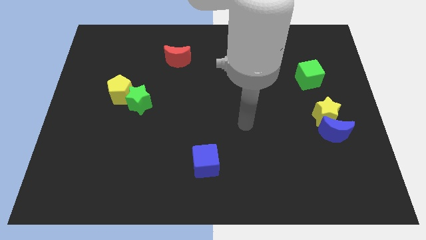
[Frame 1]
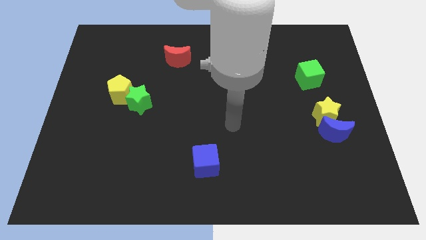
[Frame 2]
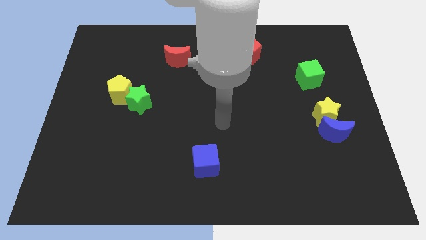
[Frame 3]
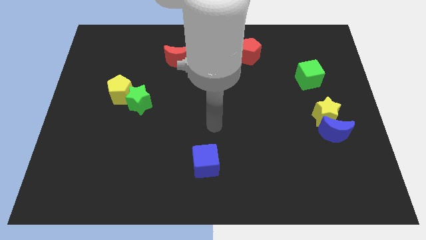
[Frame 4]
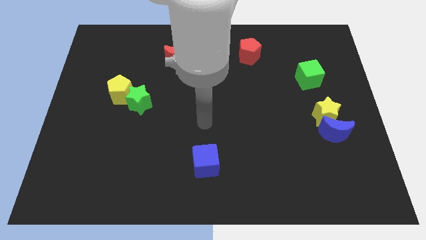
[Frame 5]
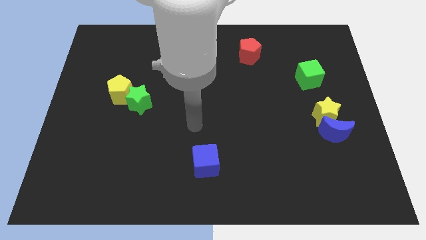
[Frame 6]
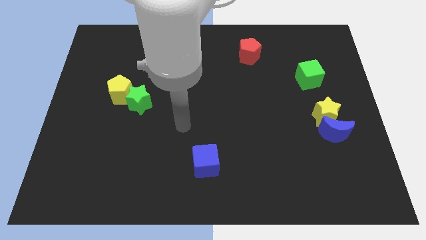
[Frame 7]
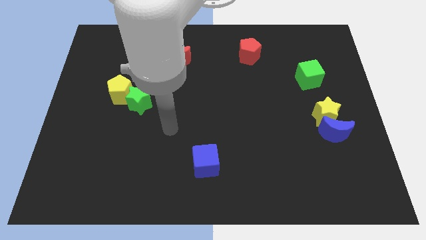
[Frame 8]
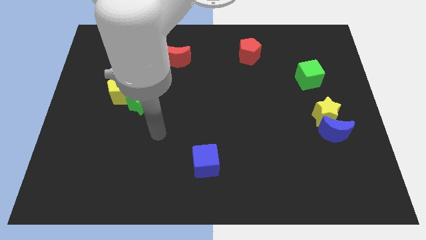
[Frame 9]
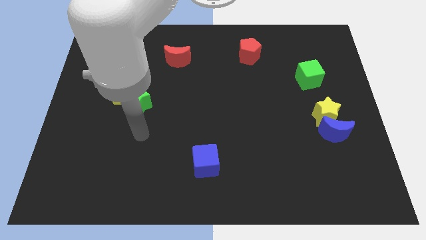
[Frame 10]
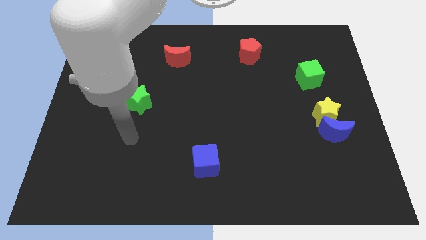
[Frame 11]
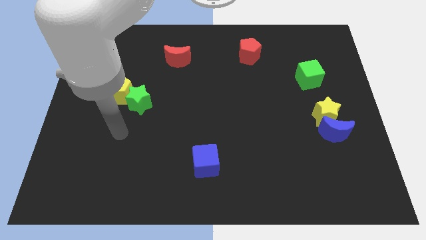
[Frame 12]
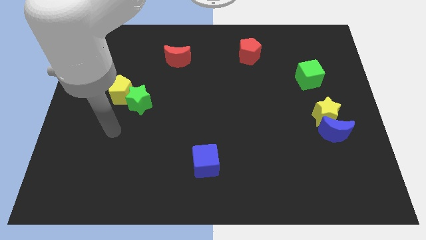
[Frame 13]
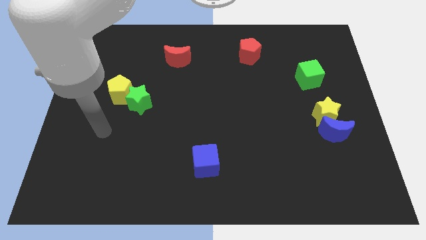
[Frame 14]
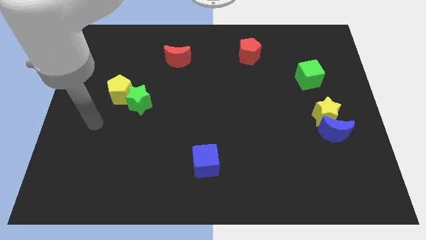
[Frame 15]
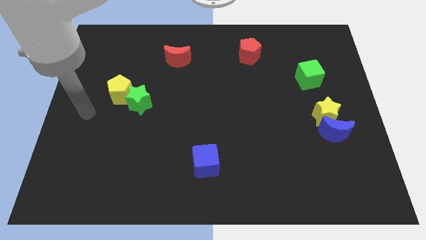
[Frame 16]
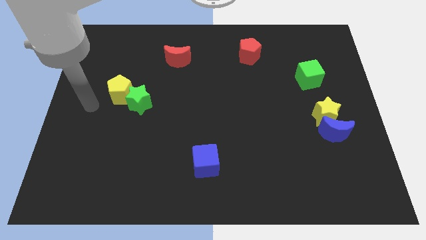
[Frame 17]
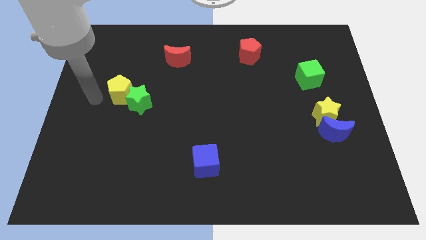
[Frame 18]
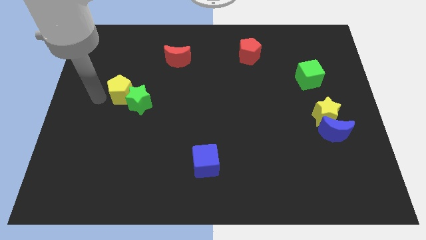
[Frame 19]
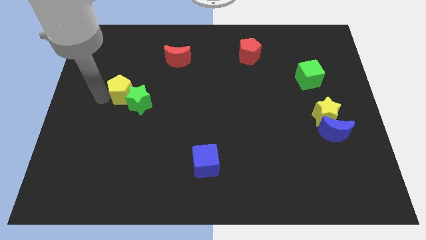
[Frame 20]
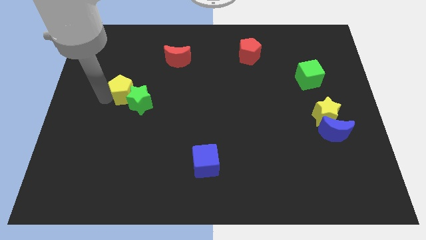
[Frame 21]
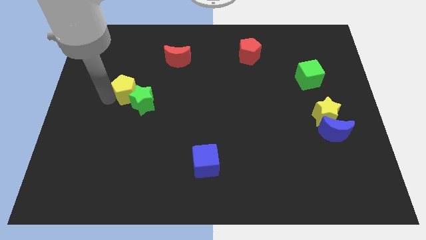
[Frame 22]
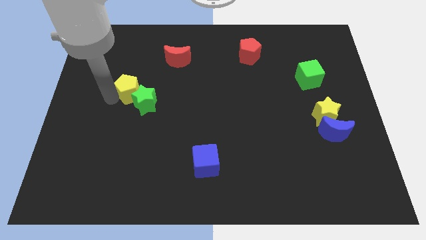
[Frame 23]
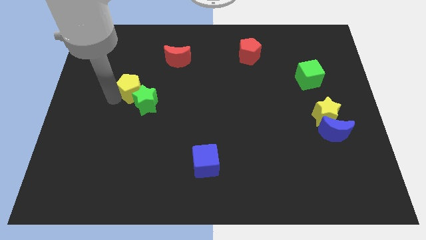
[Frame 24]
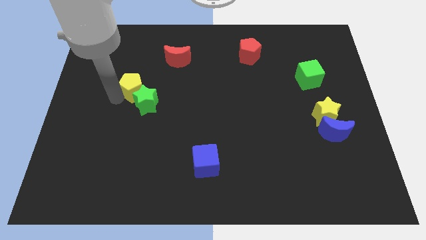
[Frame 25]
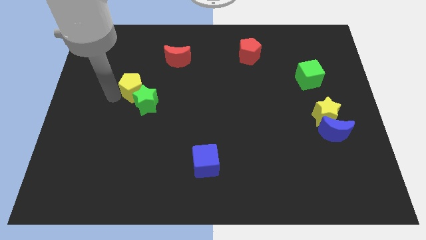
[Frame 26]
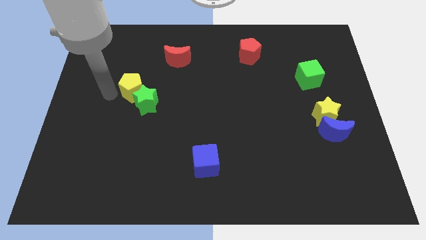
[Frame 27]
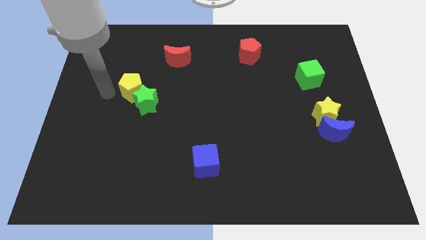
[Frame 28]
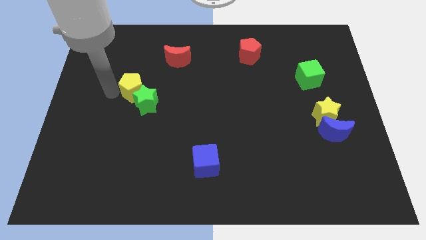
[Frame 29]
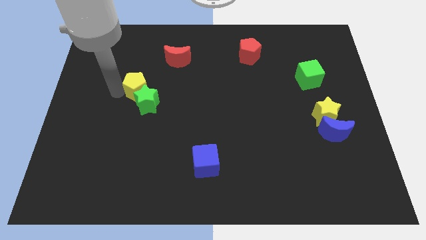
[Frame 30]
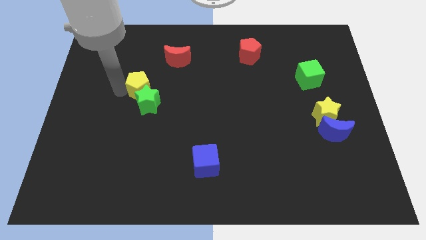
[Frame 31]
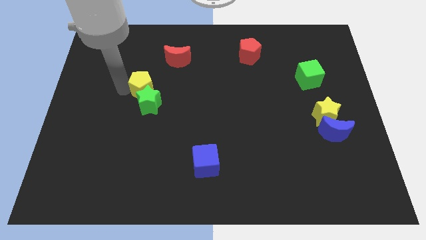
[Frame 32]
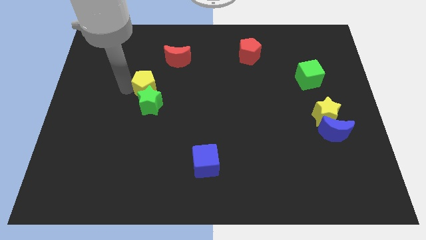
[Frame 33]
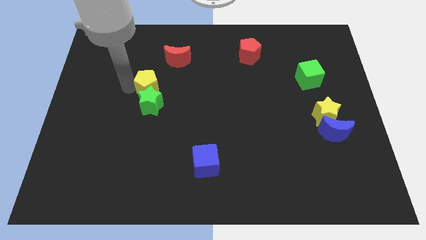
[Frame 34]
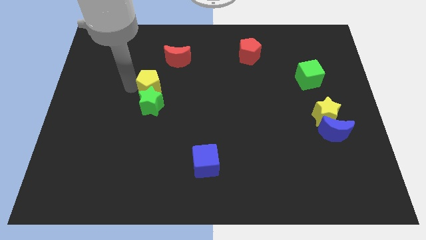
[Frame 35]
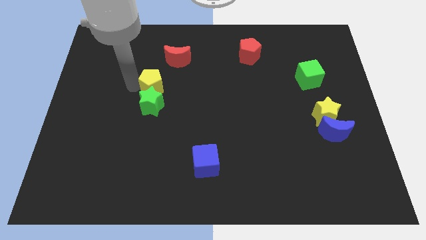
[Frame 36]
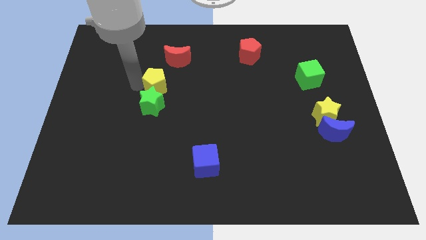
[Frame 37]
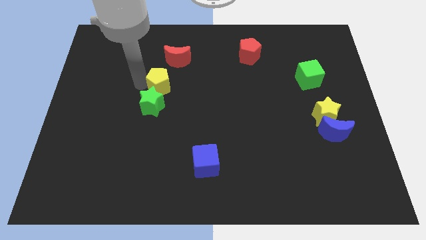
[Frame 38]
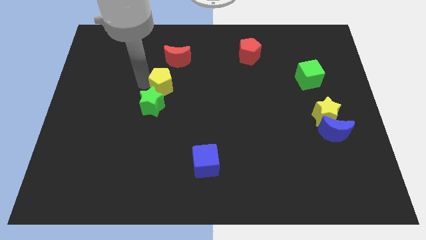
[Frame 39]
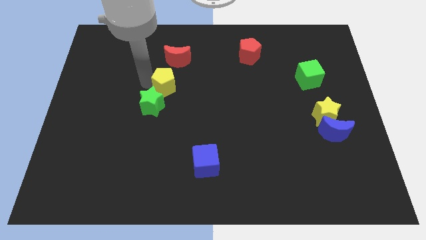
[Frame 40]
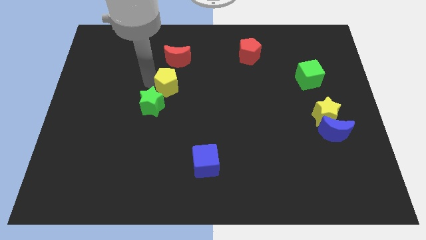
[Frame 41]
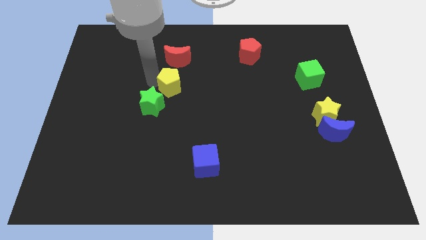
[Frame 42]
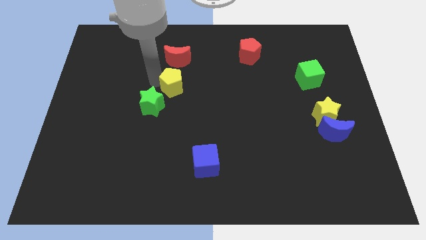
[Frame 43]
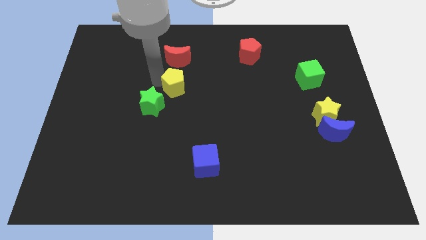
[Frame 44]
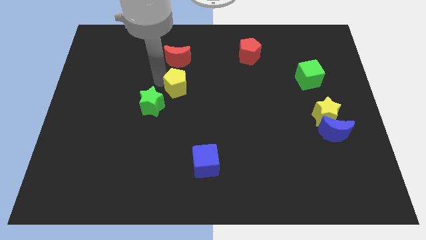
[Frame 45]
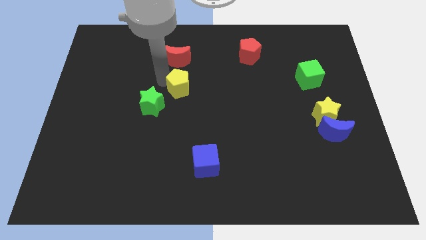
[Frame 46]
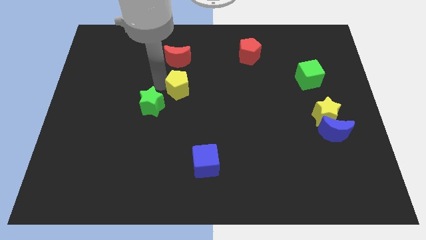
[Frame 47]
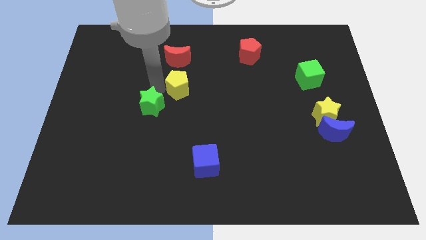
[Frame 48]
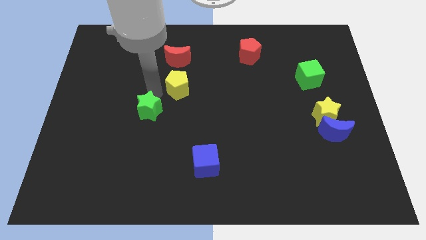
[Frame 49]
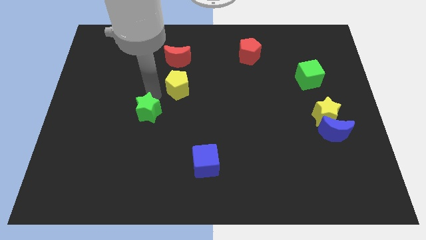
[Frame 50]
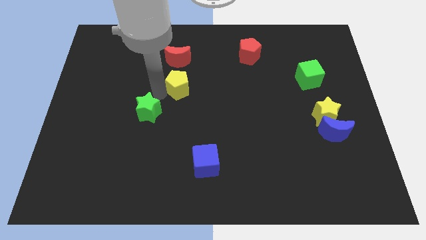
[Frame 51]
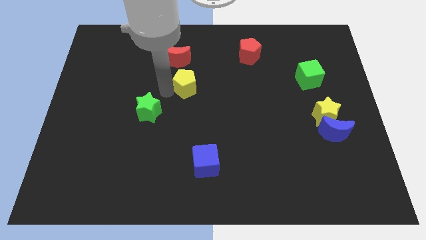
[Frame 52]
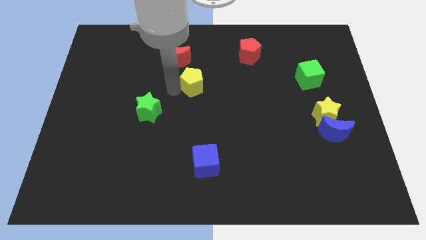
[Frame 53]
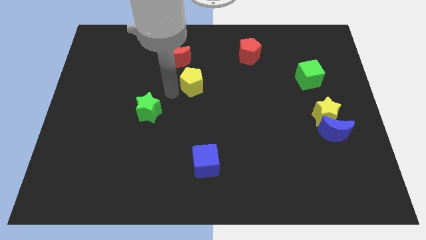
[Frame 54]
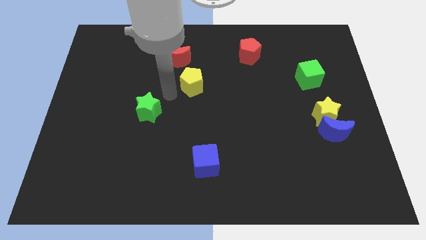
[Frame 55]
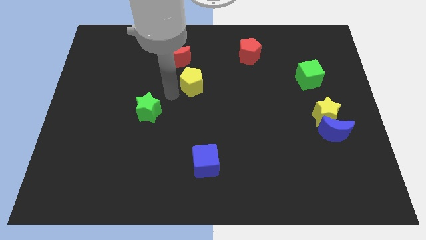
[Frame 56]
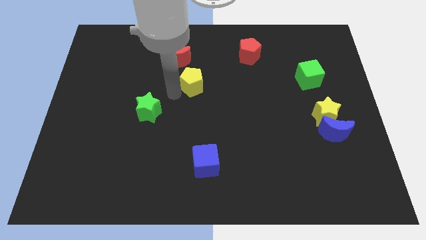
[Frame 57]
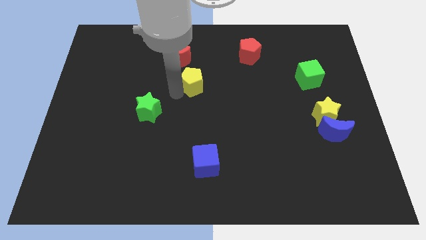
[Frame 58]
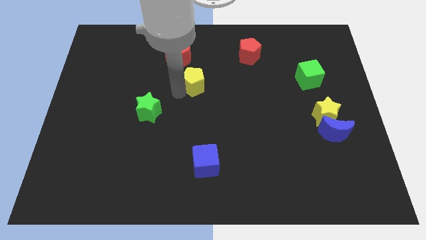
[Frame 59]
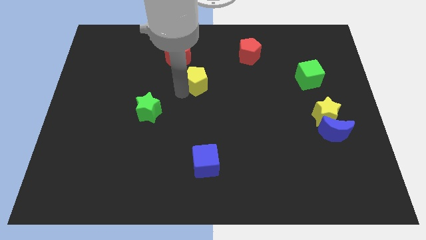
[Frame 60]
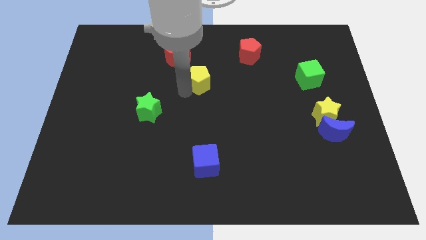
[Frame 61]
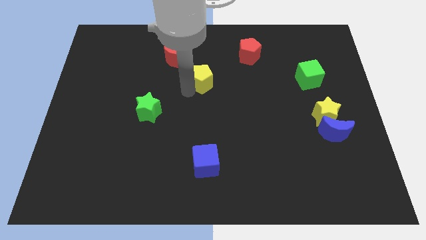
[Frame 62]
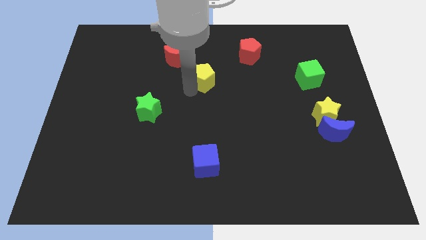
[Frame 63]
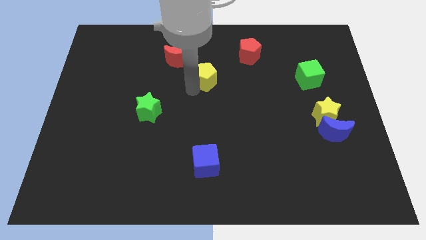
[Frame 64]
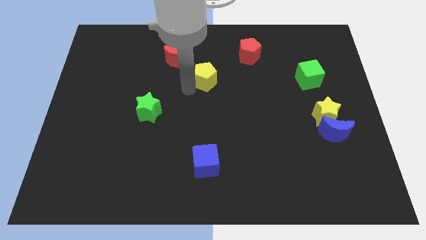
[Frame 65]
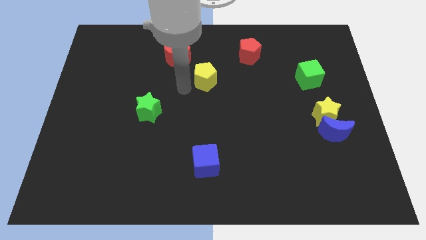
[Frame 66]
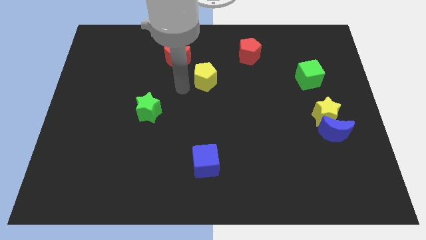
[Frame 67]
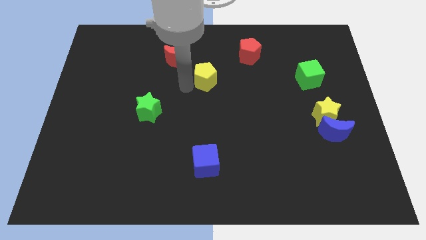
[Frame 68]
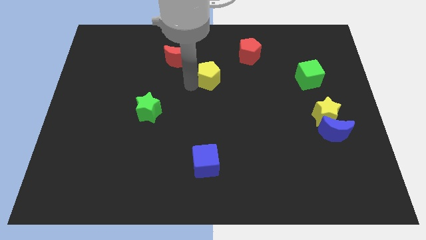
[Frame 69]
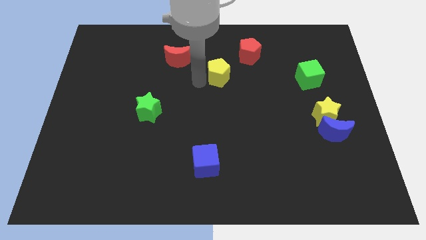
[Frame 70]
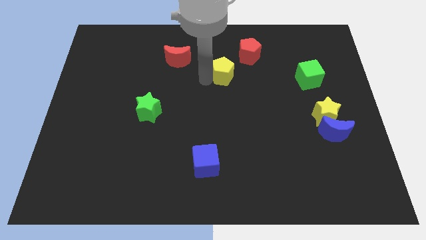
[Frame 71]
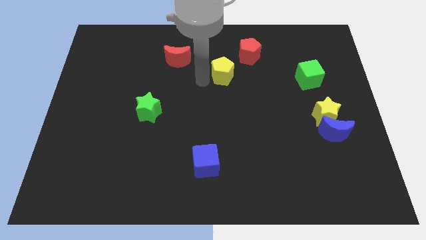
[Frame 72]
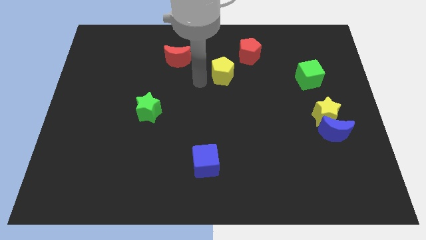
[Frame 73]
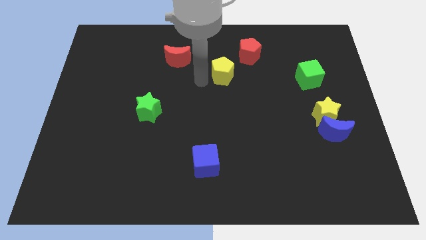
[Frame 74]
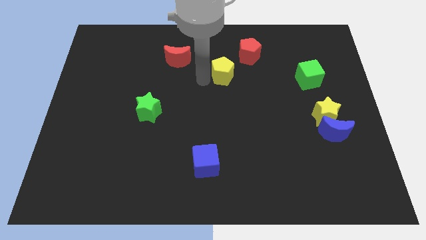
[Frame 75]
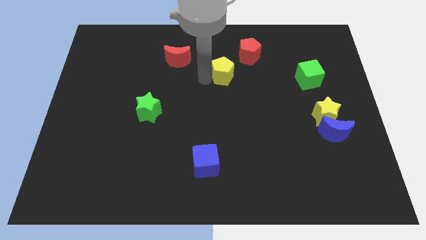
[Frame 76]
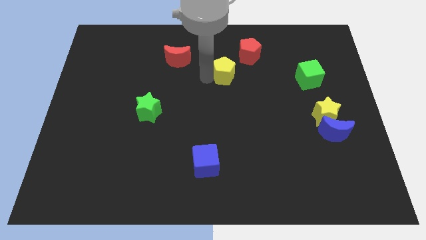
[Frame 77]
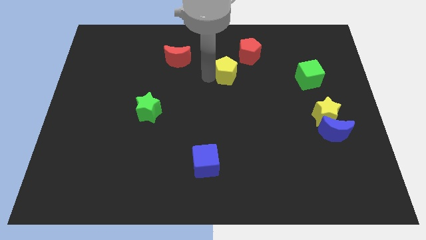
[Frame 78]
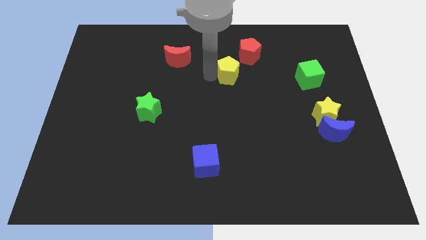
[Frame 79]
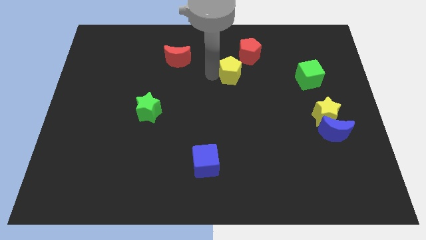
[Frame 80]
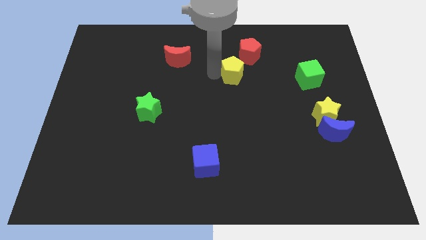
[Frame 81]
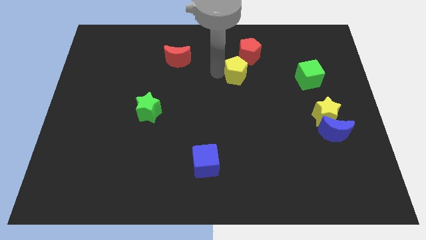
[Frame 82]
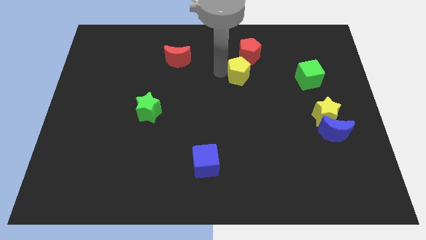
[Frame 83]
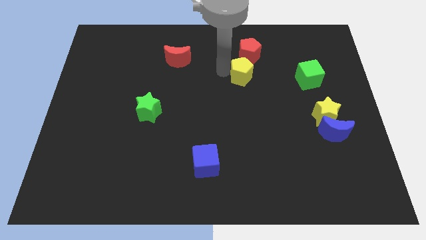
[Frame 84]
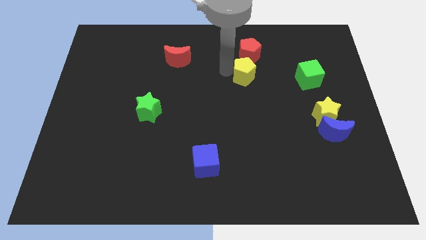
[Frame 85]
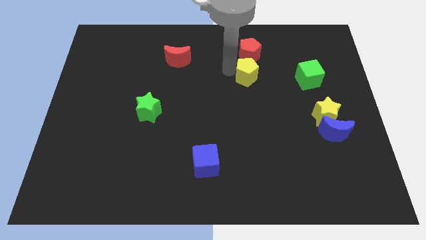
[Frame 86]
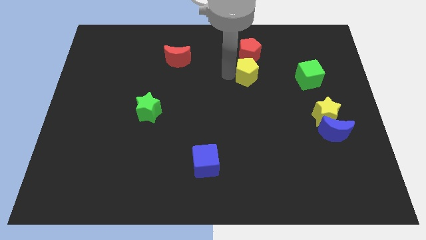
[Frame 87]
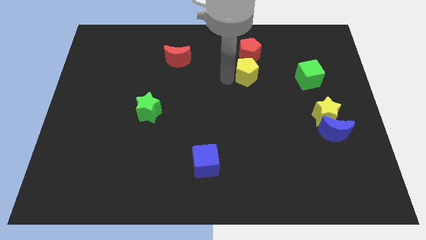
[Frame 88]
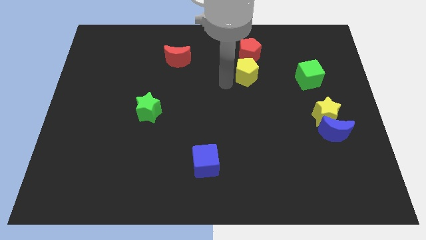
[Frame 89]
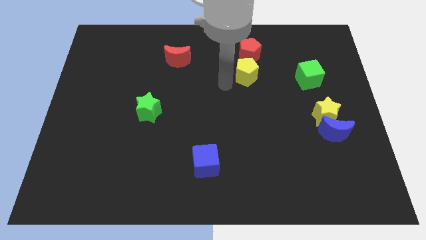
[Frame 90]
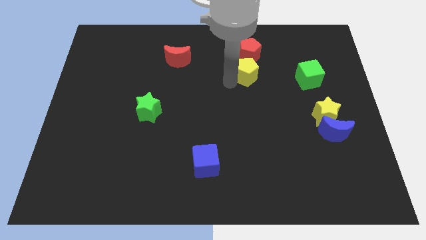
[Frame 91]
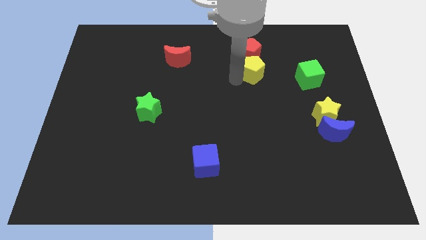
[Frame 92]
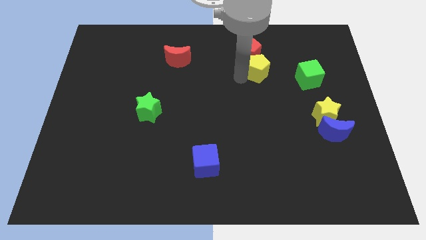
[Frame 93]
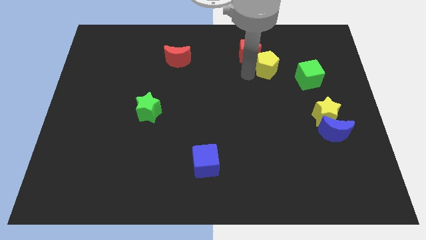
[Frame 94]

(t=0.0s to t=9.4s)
slide the yellow pentagon to the top left of the green cube
